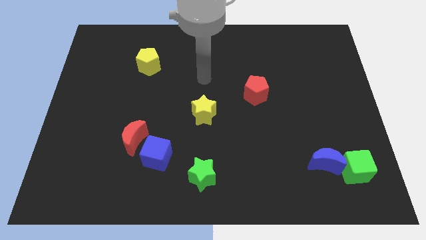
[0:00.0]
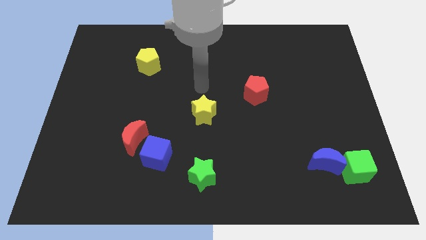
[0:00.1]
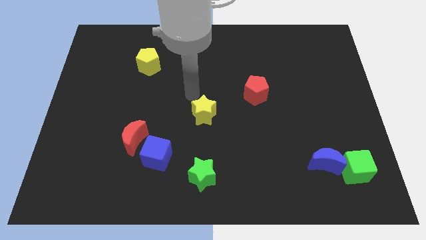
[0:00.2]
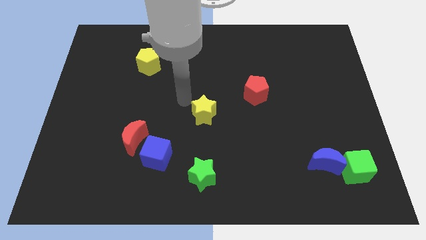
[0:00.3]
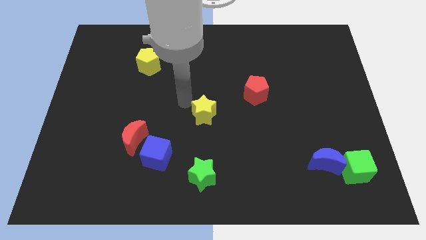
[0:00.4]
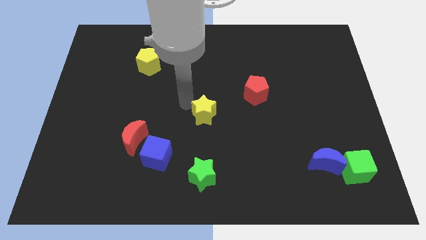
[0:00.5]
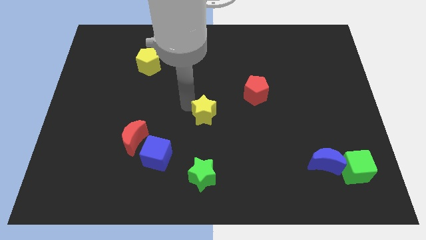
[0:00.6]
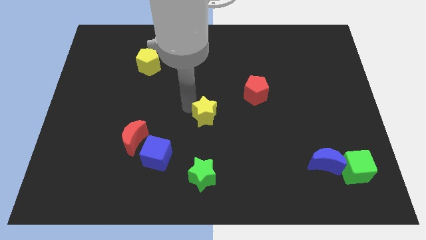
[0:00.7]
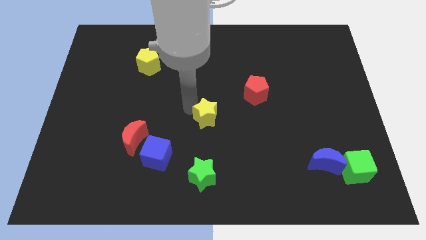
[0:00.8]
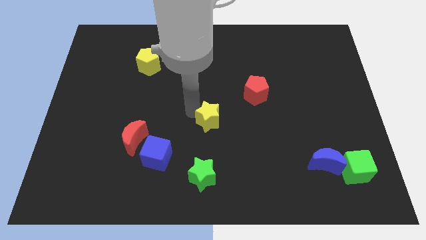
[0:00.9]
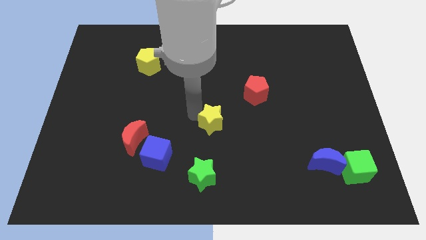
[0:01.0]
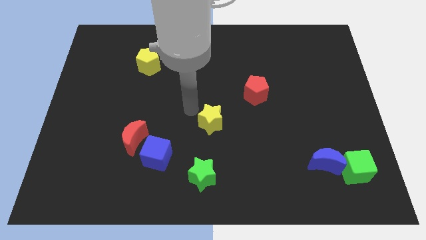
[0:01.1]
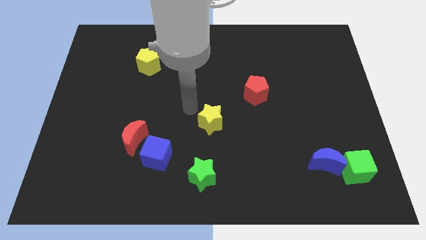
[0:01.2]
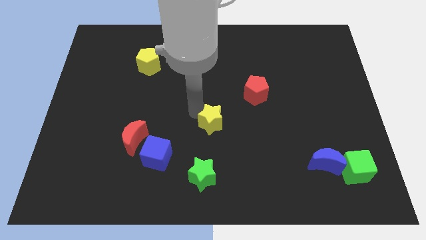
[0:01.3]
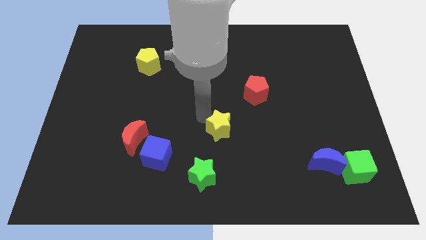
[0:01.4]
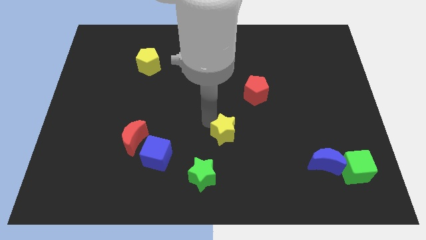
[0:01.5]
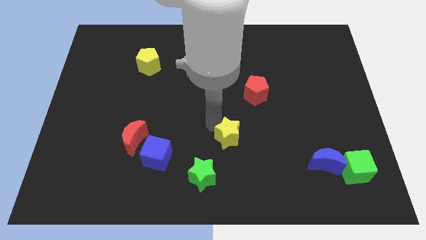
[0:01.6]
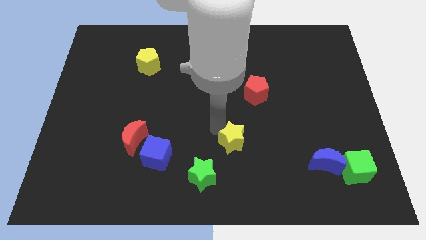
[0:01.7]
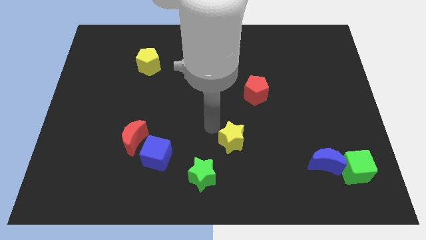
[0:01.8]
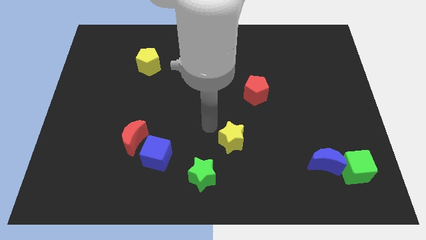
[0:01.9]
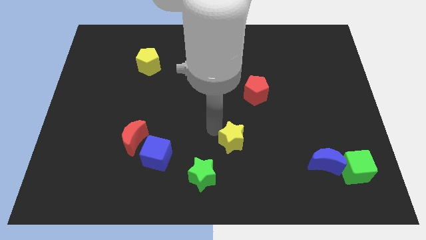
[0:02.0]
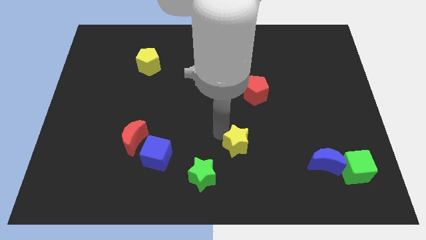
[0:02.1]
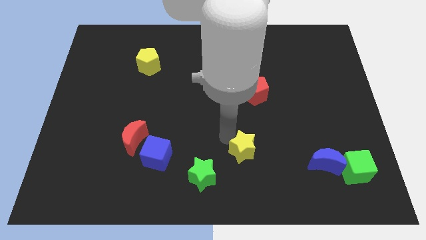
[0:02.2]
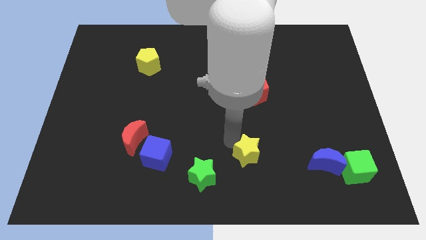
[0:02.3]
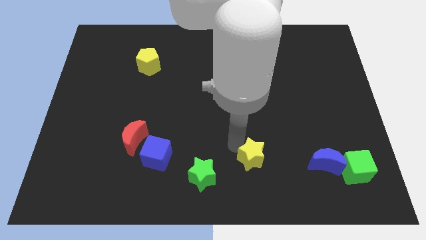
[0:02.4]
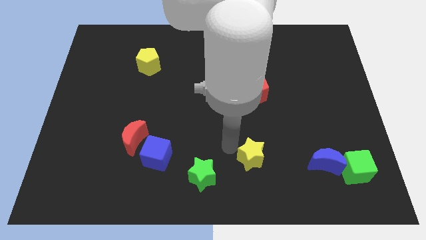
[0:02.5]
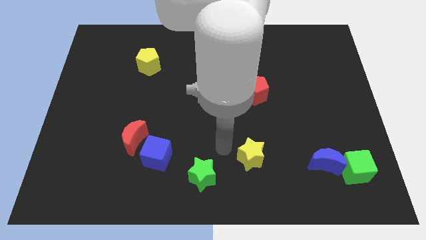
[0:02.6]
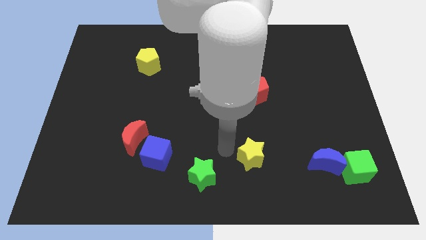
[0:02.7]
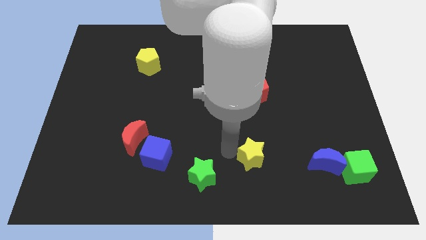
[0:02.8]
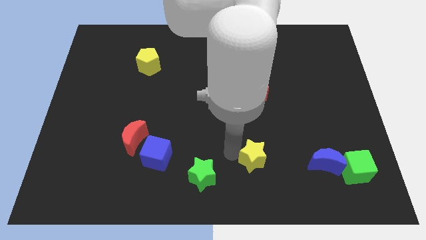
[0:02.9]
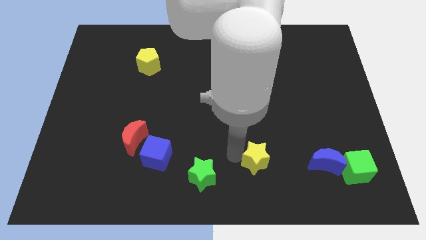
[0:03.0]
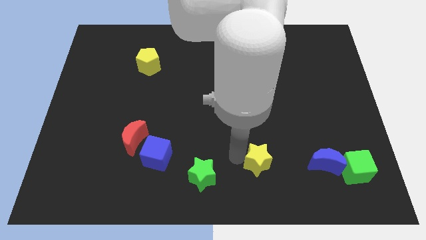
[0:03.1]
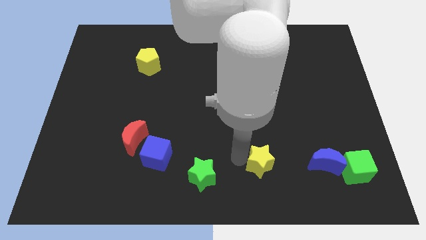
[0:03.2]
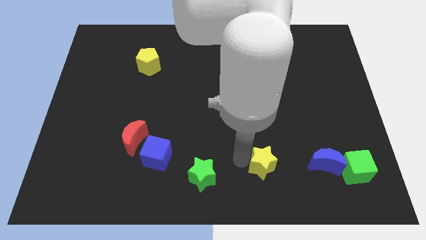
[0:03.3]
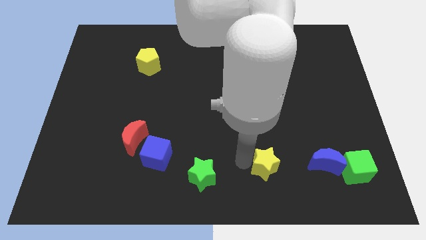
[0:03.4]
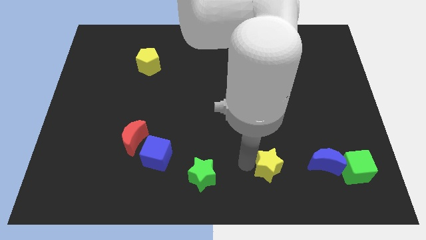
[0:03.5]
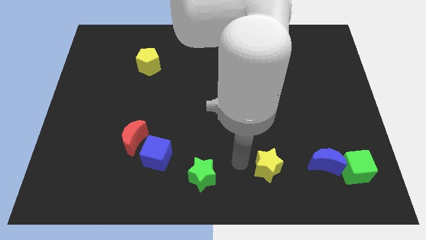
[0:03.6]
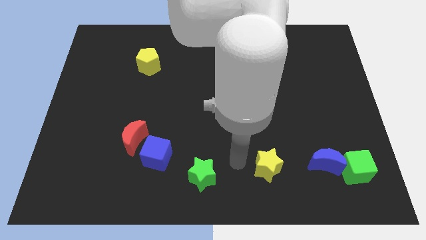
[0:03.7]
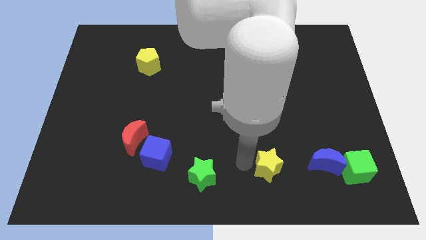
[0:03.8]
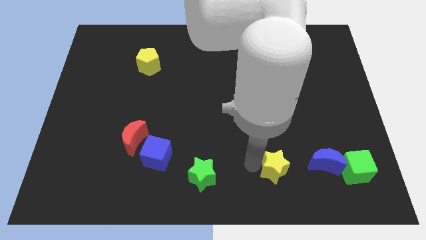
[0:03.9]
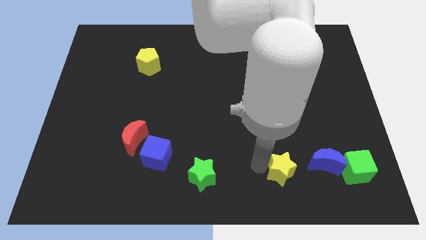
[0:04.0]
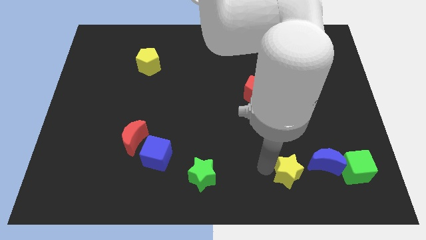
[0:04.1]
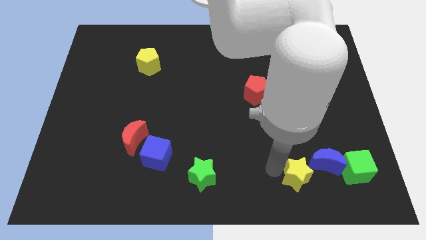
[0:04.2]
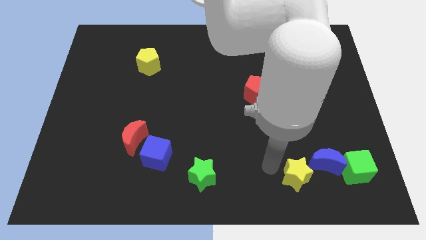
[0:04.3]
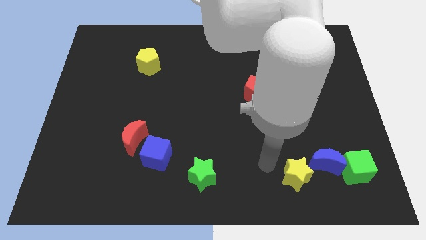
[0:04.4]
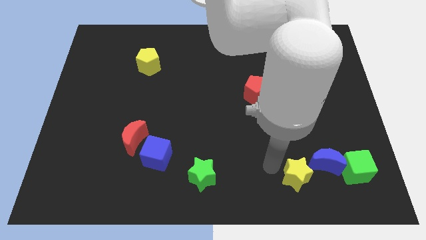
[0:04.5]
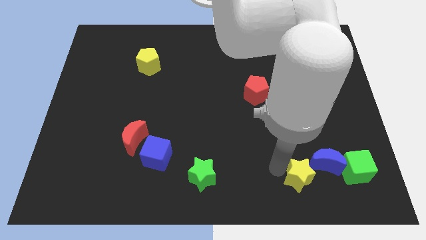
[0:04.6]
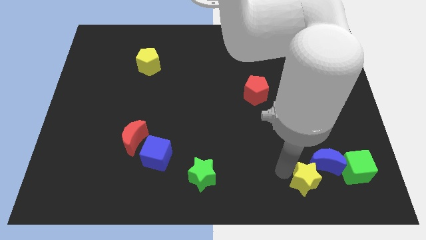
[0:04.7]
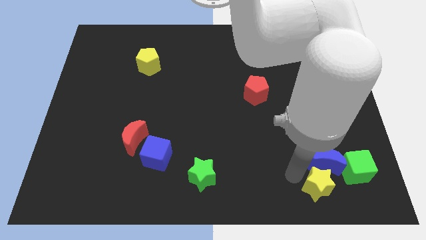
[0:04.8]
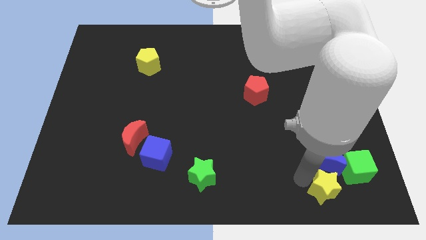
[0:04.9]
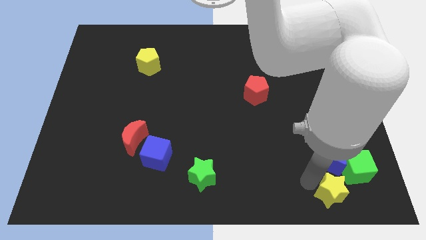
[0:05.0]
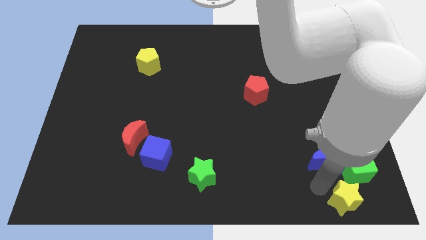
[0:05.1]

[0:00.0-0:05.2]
put the yellow star to the lower right corner
